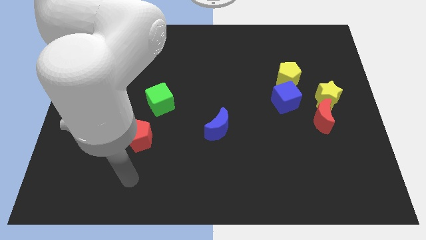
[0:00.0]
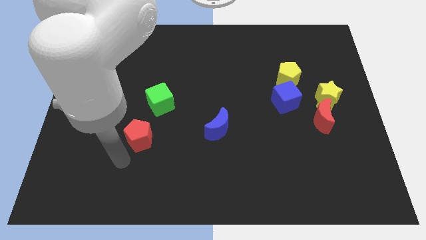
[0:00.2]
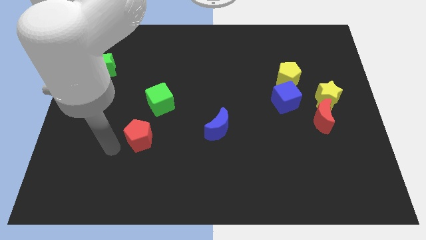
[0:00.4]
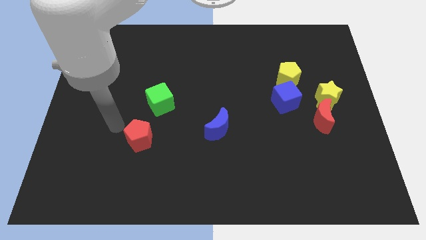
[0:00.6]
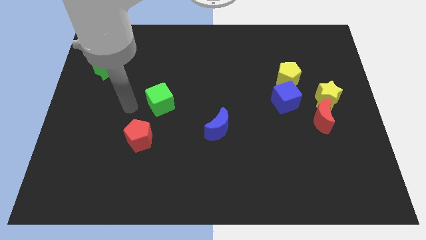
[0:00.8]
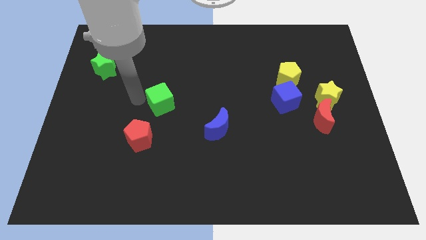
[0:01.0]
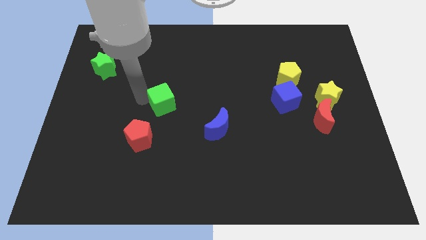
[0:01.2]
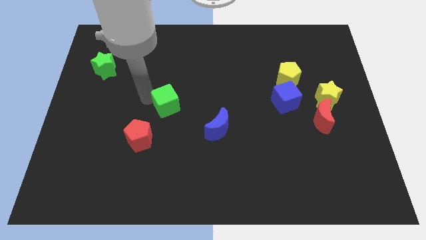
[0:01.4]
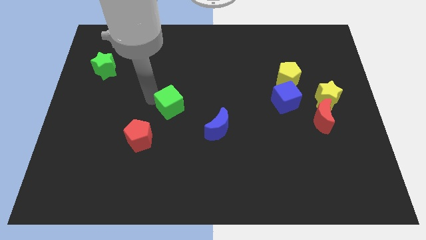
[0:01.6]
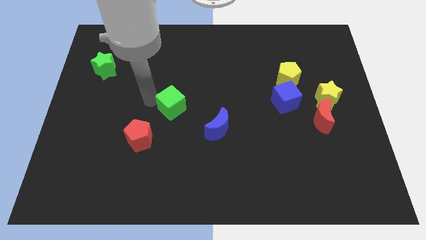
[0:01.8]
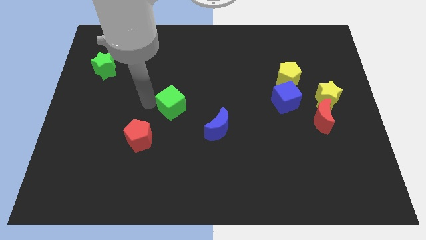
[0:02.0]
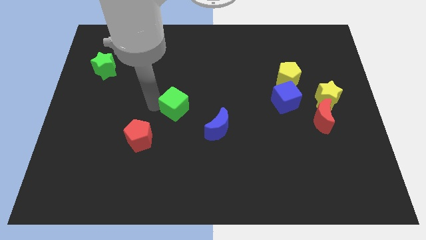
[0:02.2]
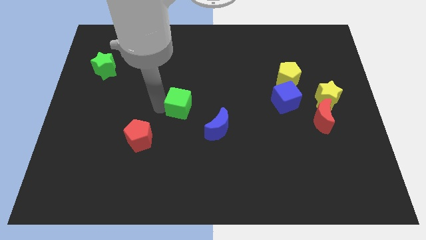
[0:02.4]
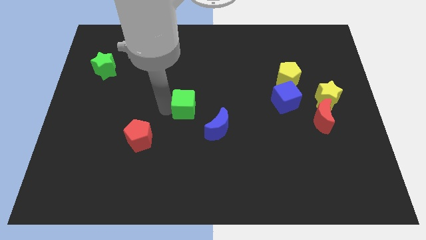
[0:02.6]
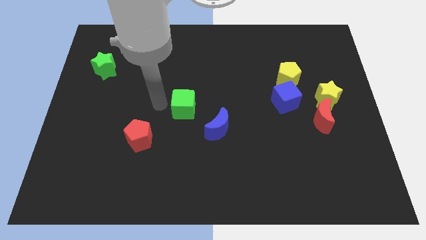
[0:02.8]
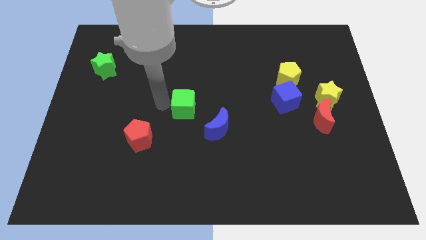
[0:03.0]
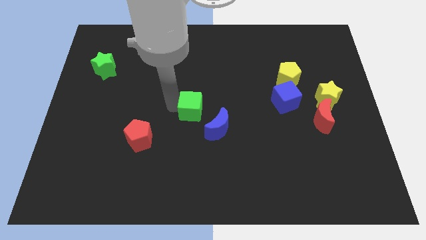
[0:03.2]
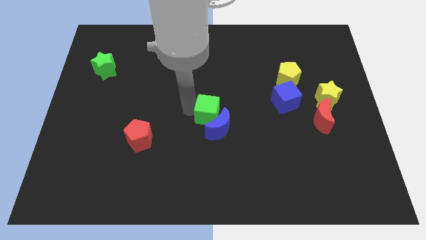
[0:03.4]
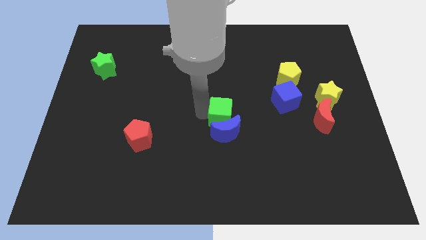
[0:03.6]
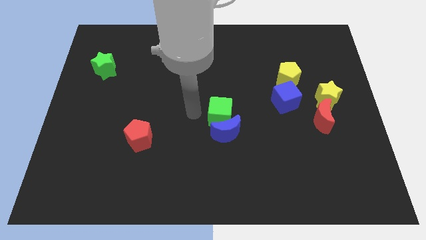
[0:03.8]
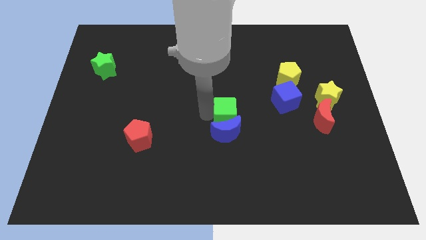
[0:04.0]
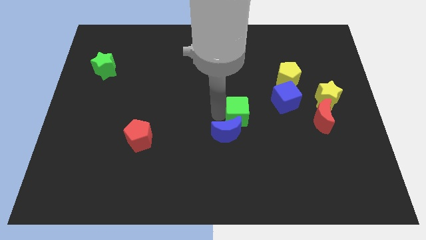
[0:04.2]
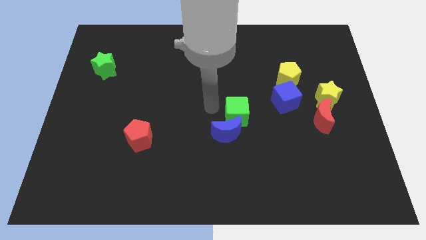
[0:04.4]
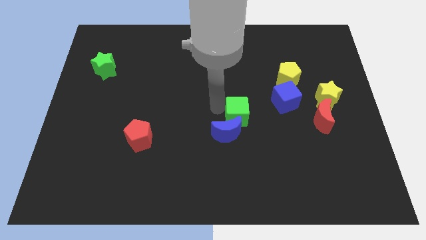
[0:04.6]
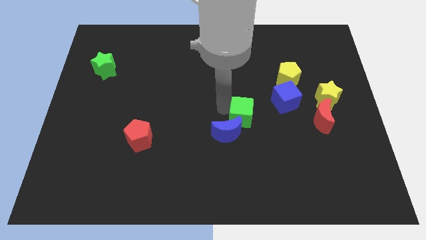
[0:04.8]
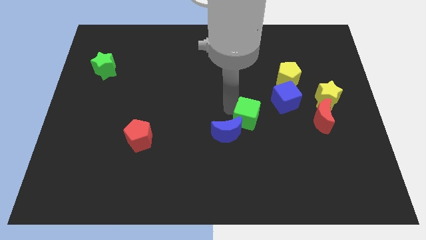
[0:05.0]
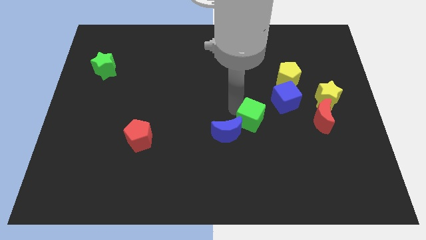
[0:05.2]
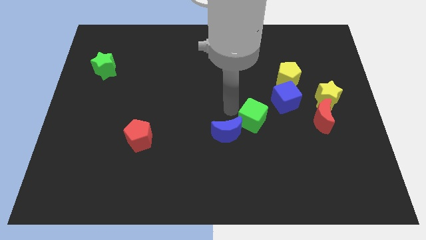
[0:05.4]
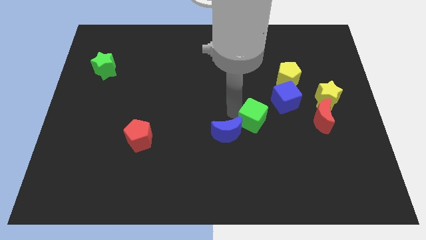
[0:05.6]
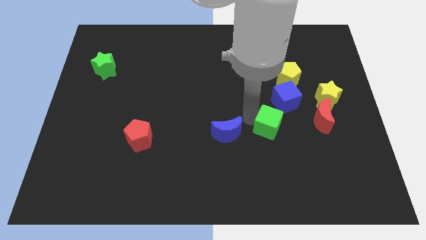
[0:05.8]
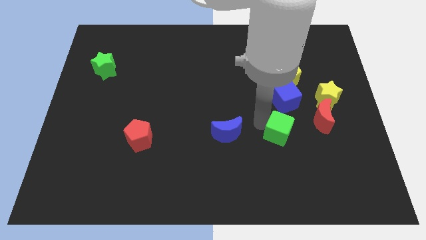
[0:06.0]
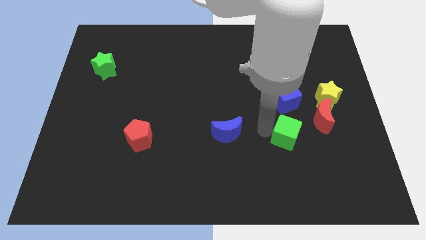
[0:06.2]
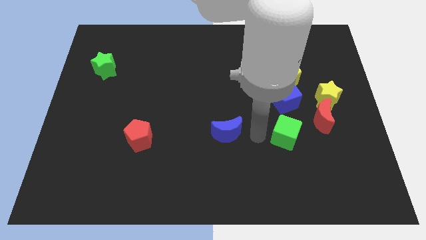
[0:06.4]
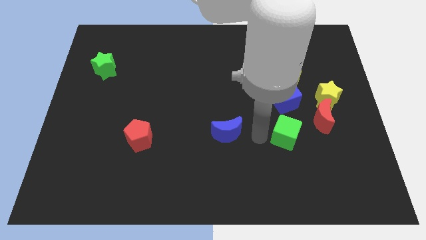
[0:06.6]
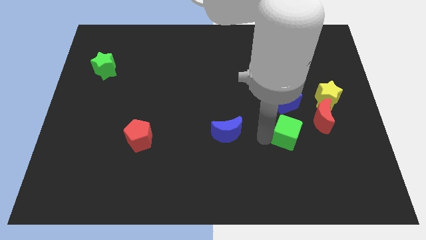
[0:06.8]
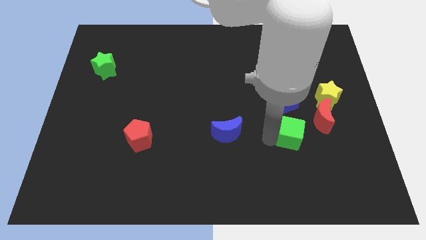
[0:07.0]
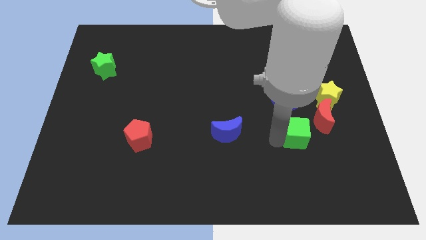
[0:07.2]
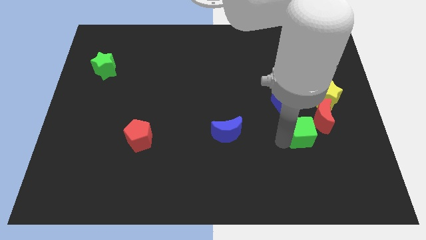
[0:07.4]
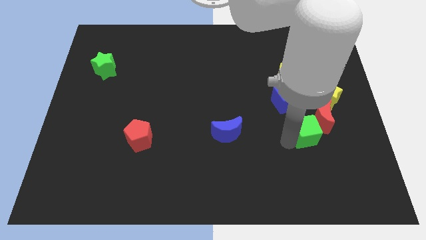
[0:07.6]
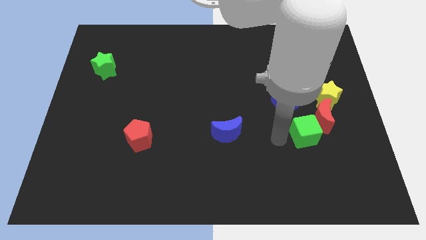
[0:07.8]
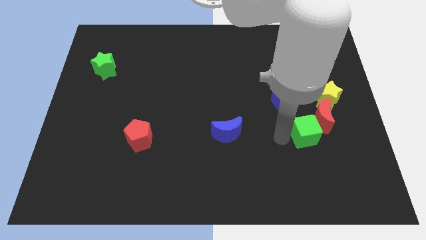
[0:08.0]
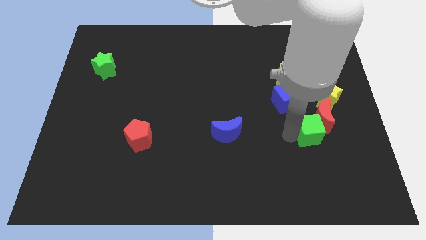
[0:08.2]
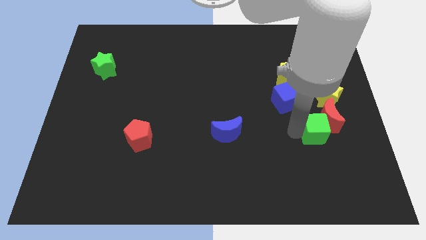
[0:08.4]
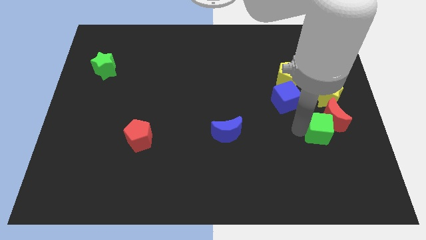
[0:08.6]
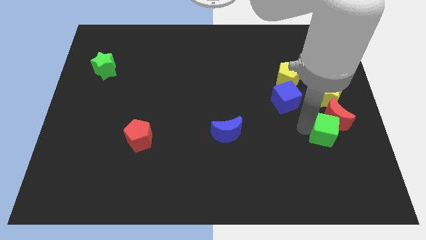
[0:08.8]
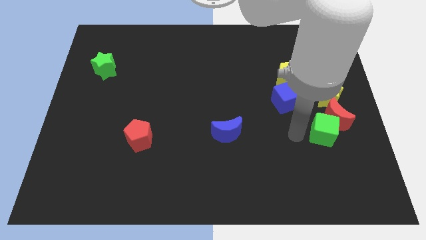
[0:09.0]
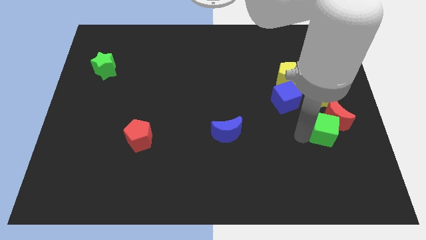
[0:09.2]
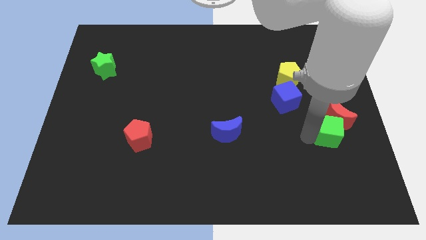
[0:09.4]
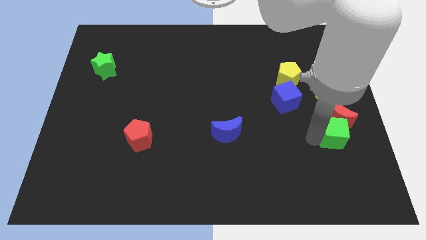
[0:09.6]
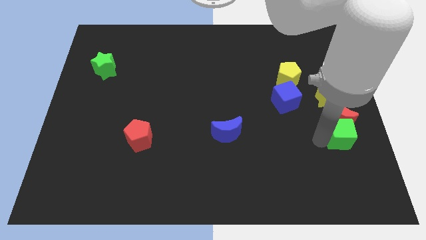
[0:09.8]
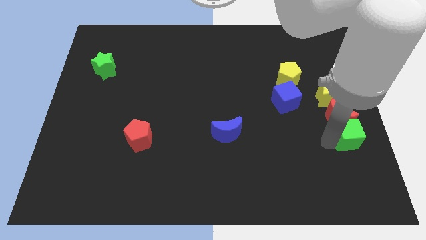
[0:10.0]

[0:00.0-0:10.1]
slide the green cube to the right side of the board

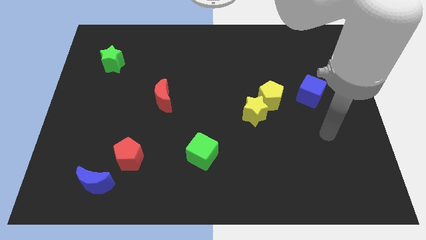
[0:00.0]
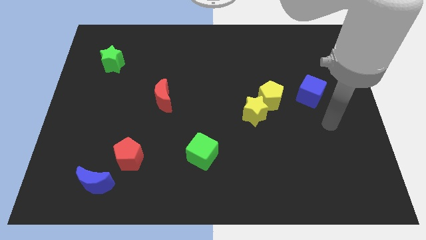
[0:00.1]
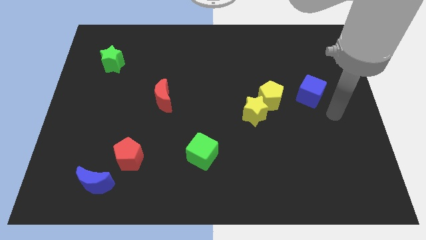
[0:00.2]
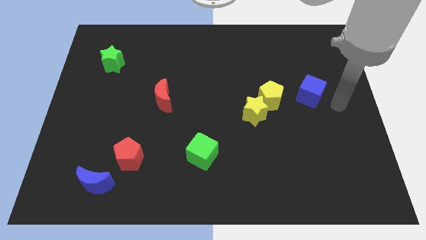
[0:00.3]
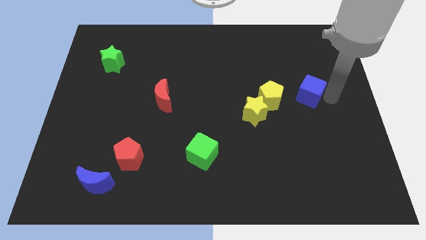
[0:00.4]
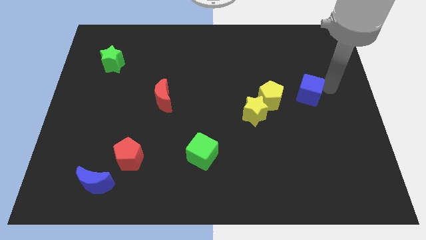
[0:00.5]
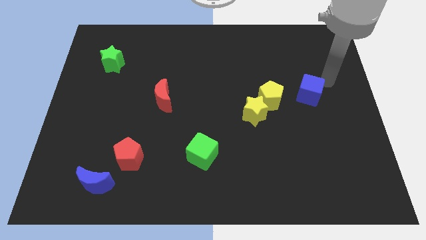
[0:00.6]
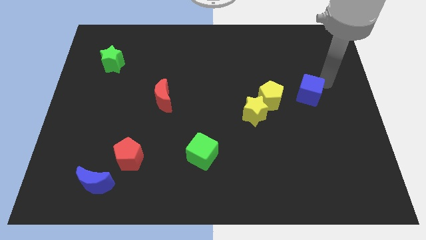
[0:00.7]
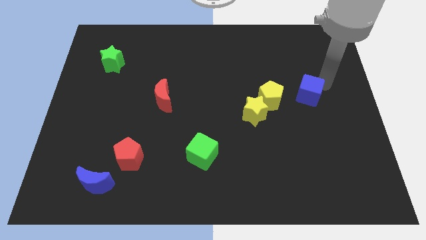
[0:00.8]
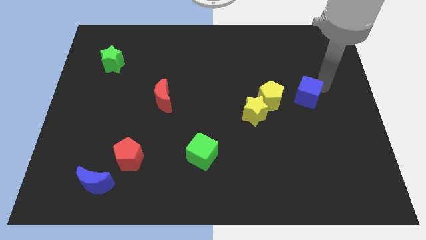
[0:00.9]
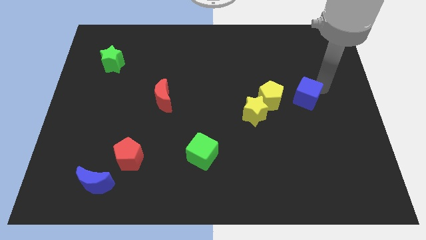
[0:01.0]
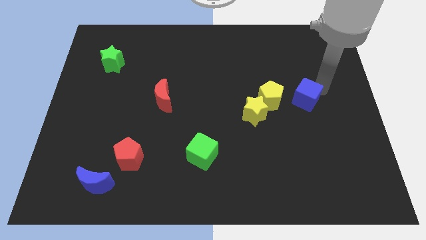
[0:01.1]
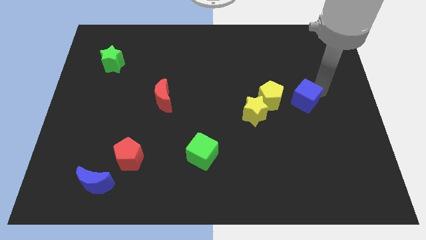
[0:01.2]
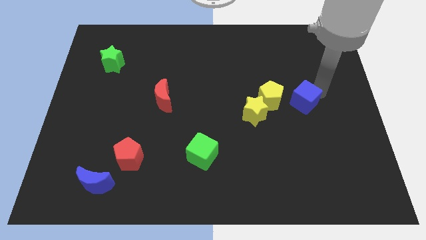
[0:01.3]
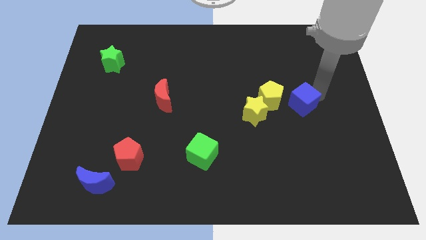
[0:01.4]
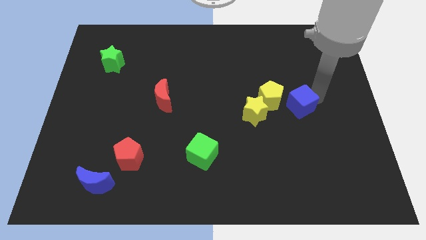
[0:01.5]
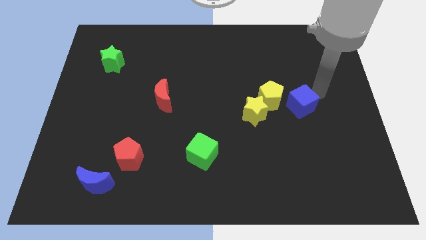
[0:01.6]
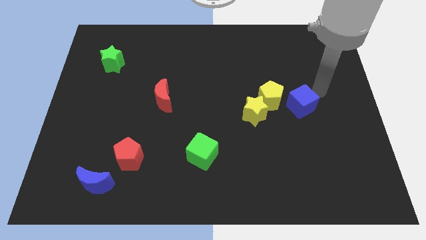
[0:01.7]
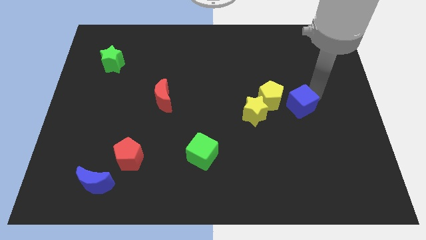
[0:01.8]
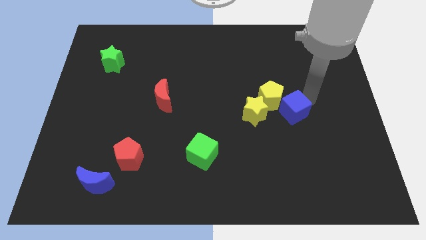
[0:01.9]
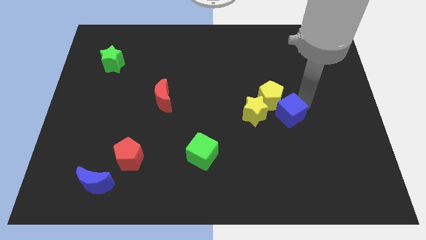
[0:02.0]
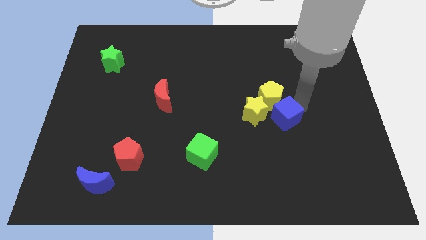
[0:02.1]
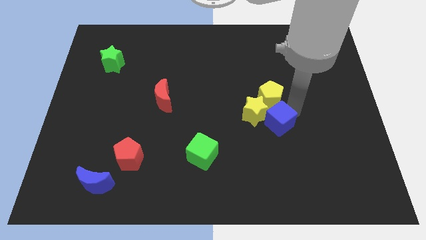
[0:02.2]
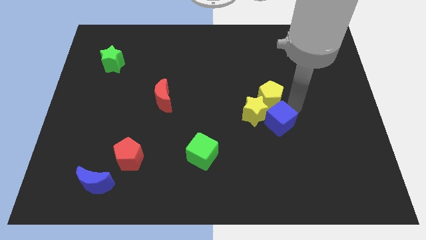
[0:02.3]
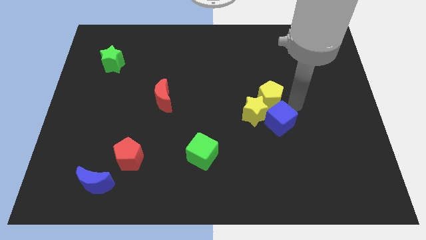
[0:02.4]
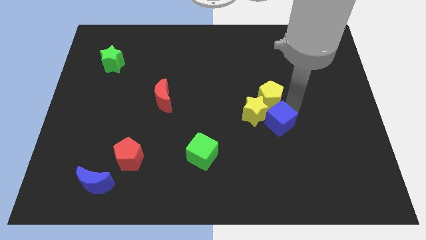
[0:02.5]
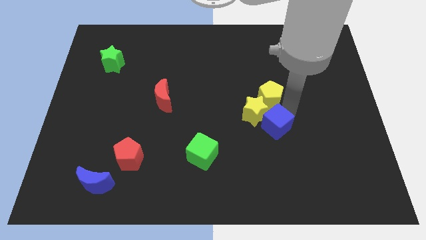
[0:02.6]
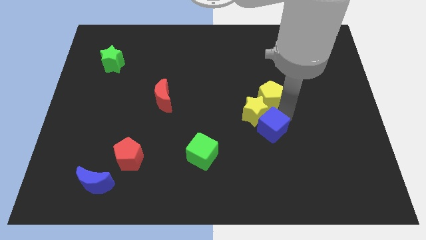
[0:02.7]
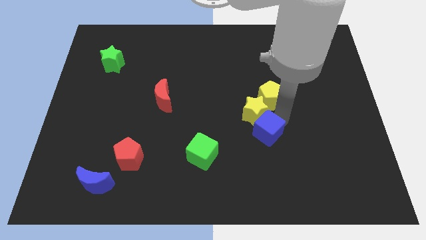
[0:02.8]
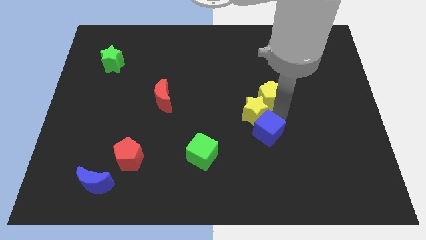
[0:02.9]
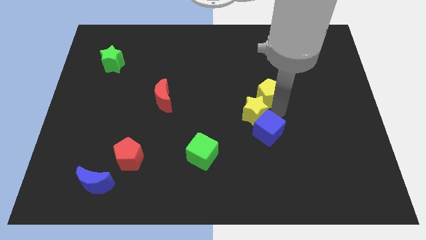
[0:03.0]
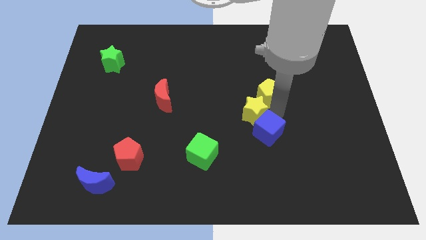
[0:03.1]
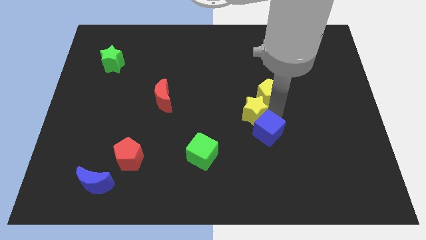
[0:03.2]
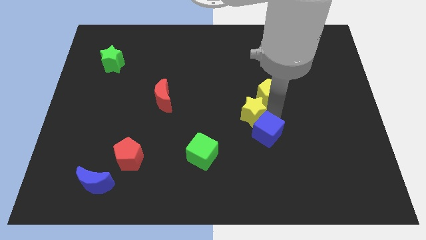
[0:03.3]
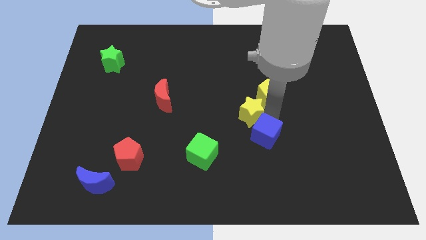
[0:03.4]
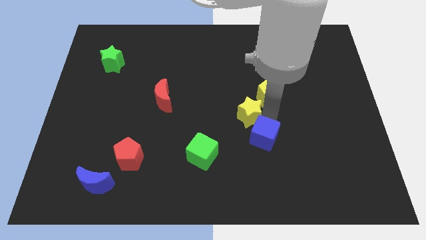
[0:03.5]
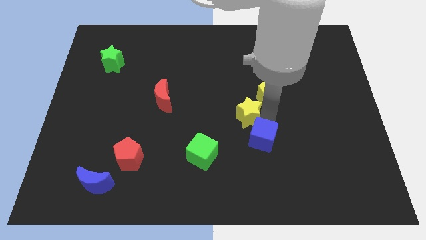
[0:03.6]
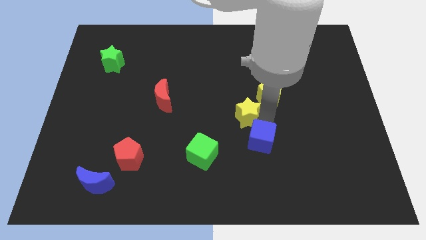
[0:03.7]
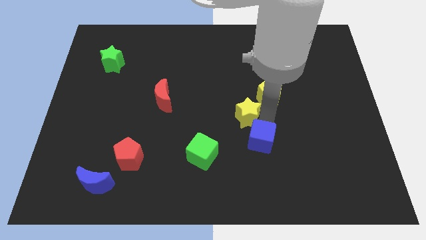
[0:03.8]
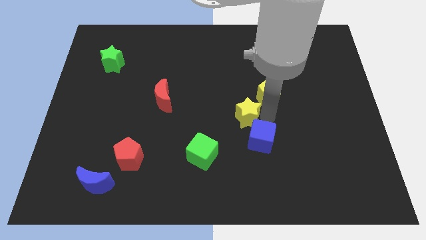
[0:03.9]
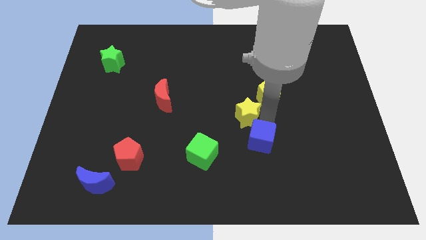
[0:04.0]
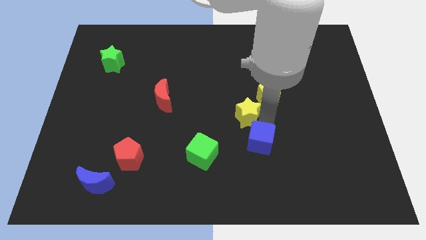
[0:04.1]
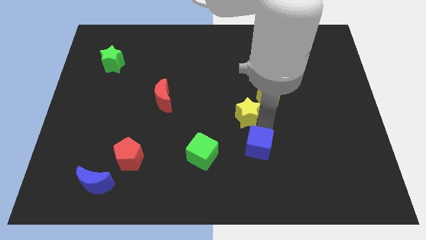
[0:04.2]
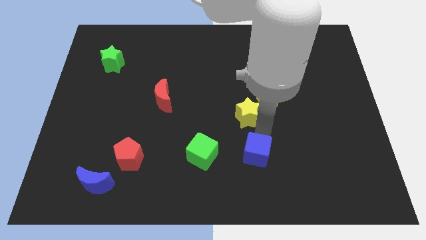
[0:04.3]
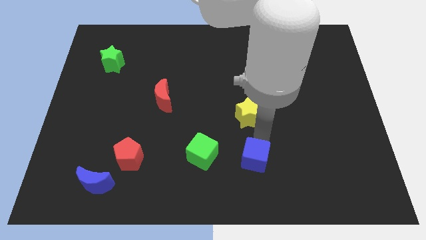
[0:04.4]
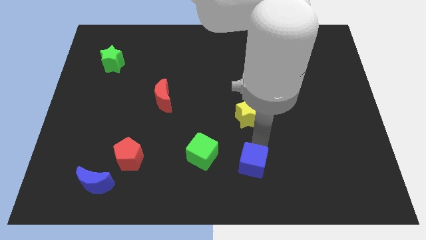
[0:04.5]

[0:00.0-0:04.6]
slide the blue cube to the bottom side
